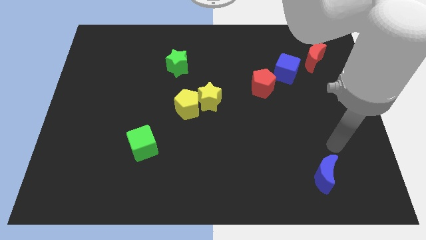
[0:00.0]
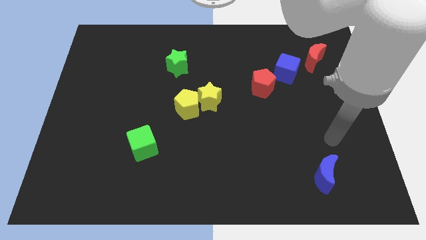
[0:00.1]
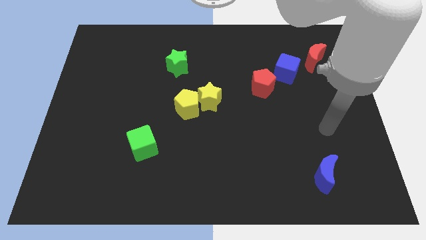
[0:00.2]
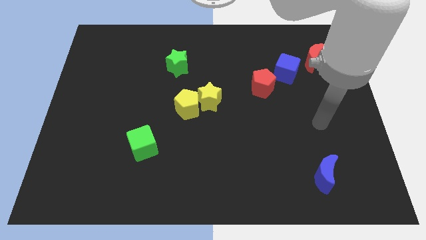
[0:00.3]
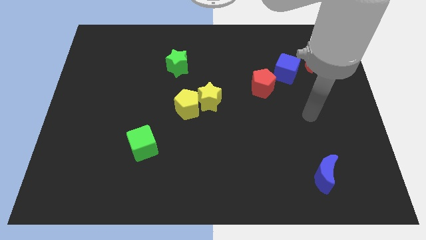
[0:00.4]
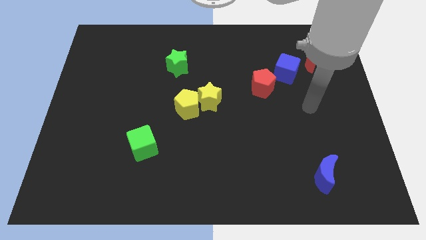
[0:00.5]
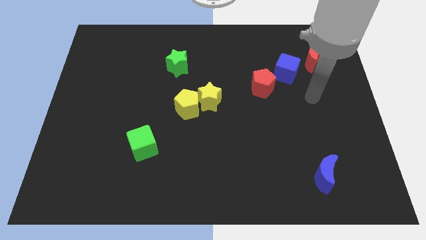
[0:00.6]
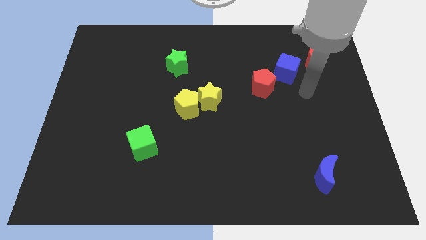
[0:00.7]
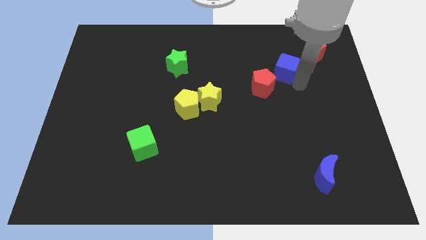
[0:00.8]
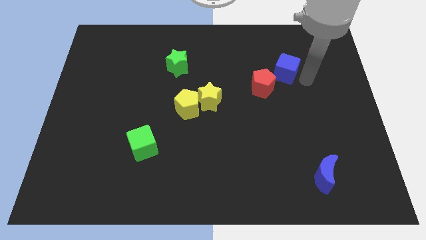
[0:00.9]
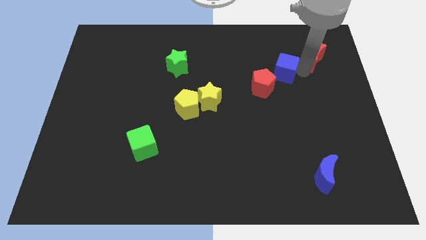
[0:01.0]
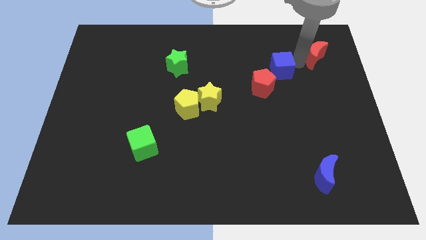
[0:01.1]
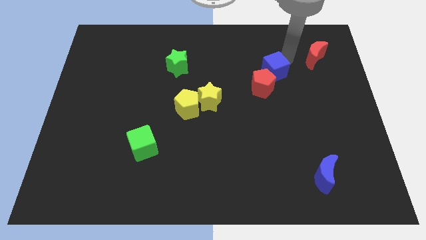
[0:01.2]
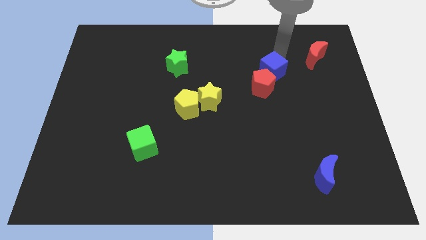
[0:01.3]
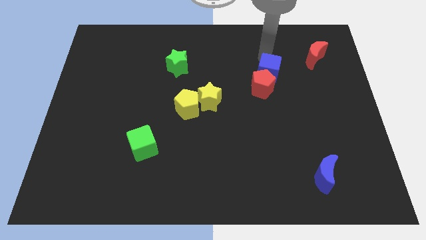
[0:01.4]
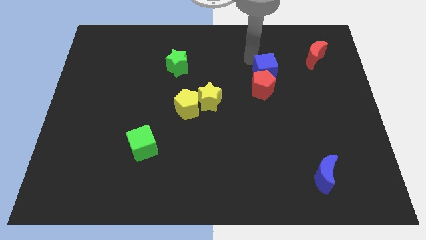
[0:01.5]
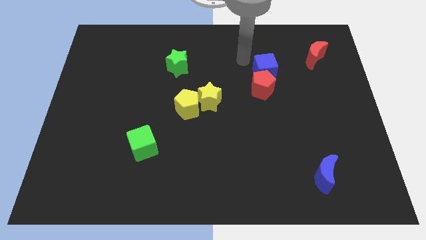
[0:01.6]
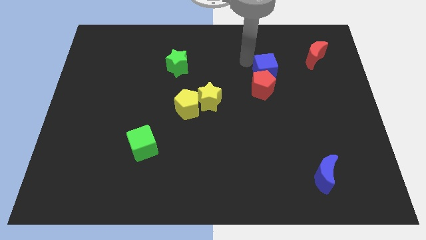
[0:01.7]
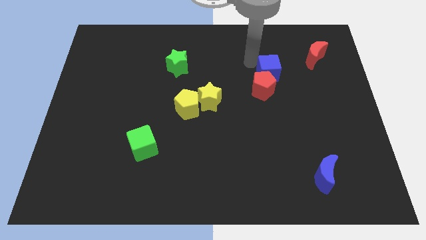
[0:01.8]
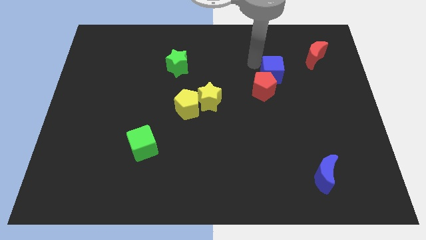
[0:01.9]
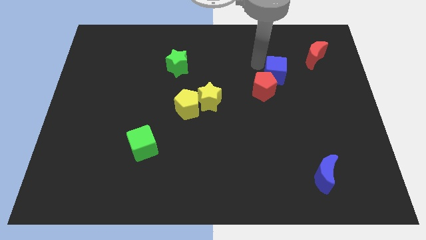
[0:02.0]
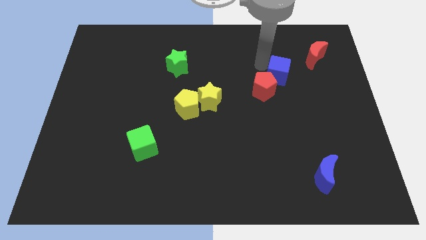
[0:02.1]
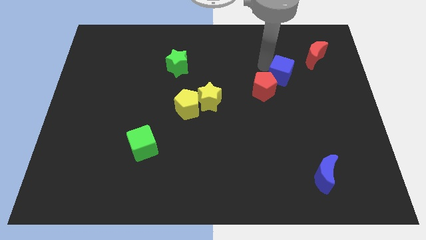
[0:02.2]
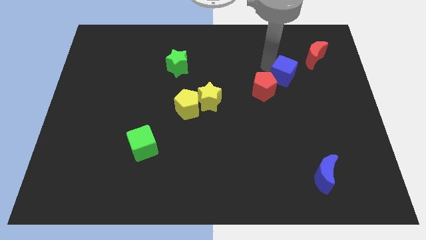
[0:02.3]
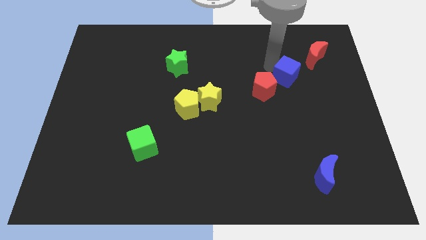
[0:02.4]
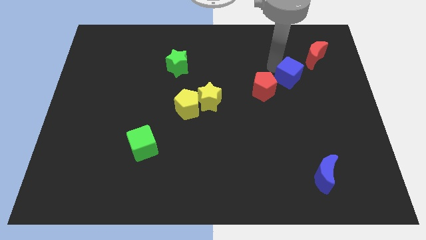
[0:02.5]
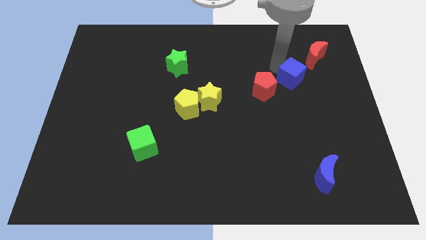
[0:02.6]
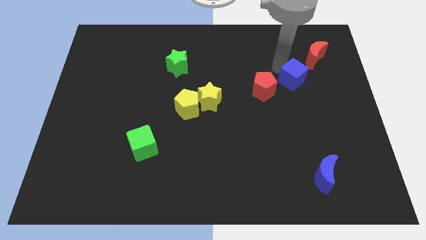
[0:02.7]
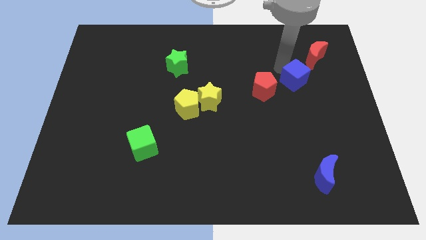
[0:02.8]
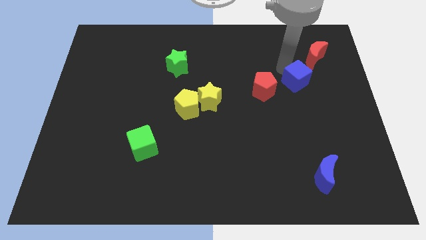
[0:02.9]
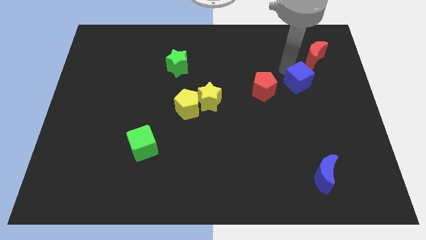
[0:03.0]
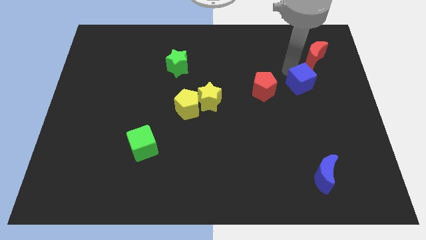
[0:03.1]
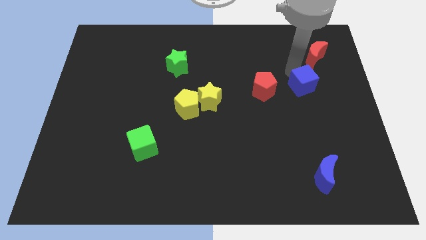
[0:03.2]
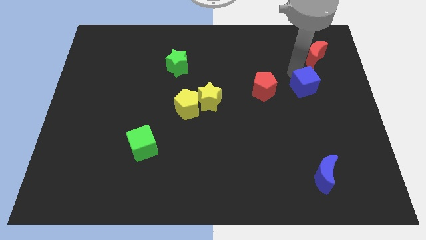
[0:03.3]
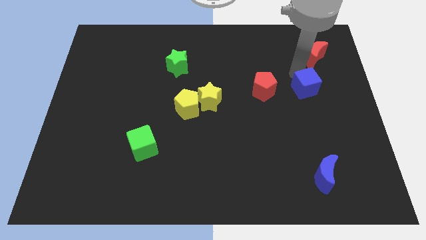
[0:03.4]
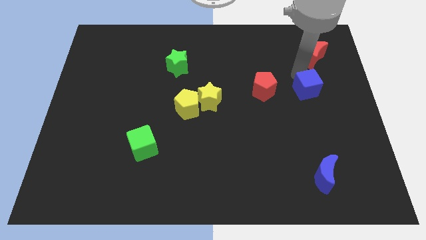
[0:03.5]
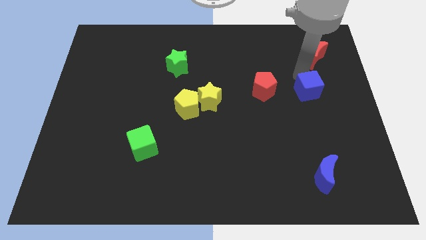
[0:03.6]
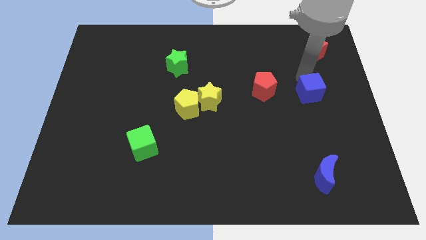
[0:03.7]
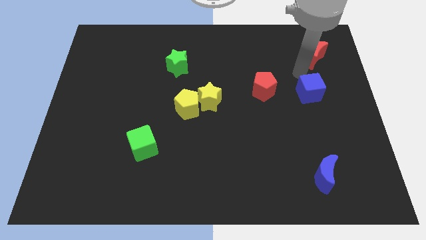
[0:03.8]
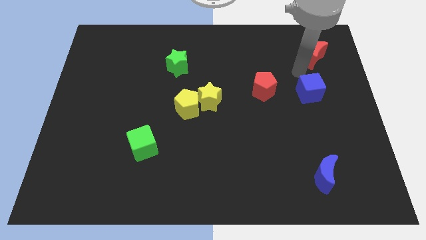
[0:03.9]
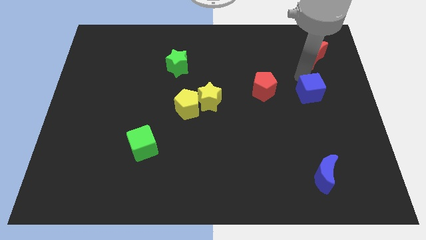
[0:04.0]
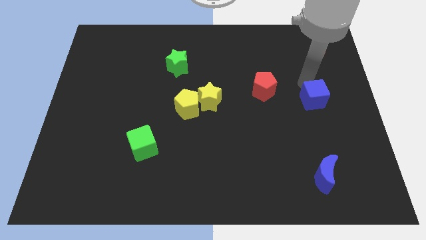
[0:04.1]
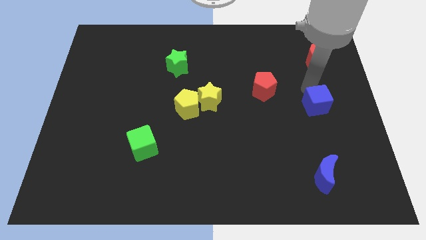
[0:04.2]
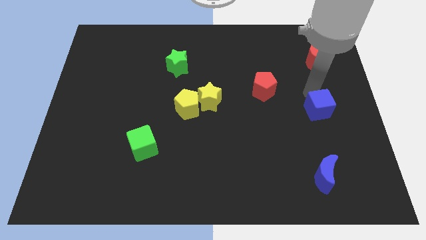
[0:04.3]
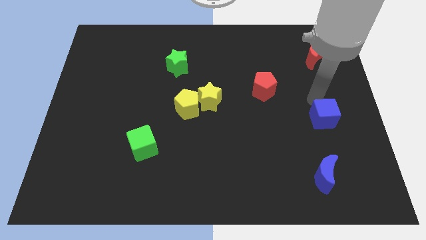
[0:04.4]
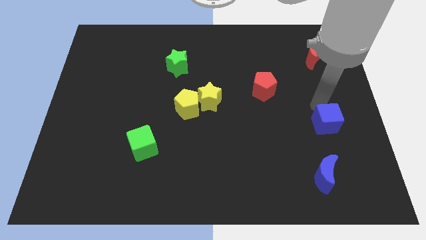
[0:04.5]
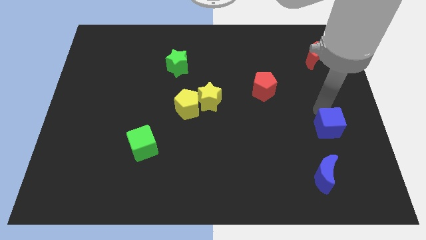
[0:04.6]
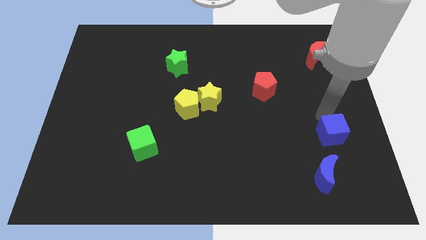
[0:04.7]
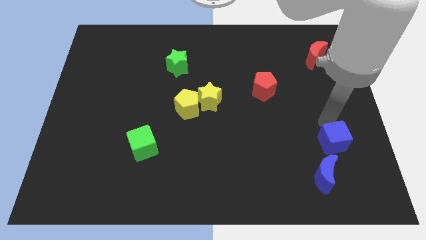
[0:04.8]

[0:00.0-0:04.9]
slide the blue cube diagonally up and to the right of the blue moon

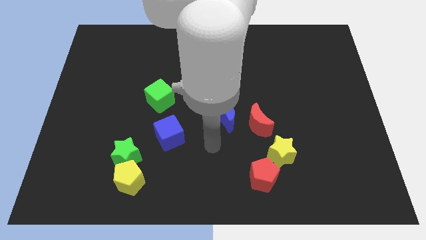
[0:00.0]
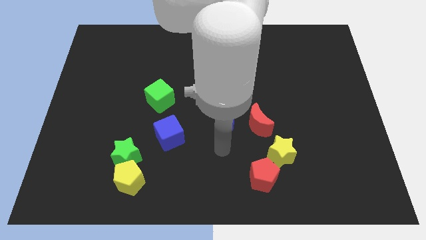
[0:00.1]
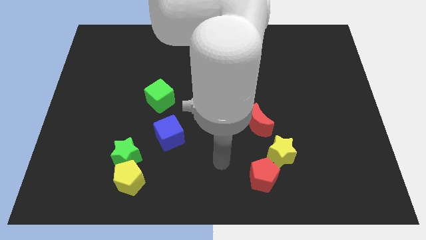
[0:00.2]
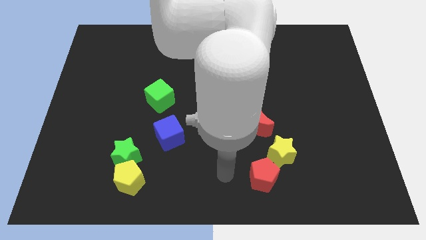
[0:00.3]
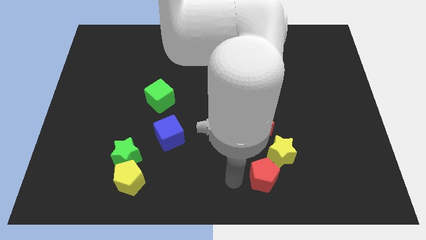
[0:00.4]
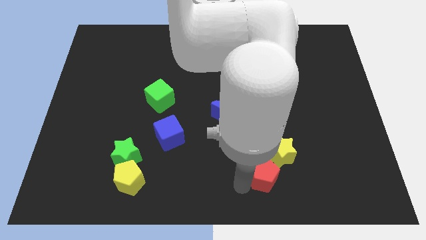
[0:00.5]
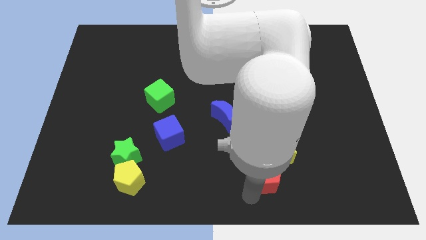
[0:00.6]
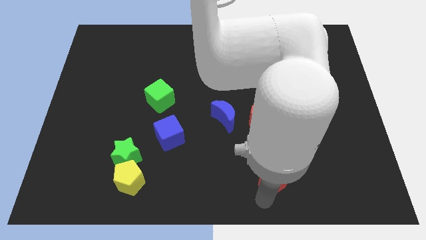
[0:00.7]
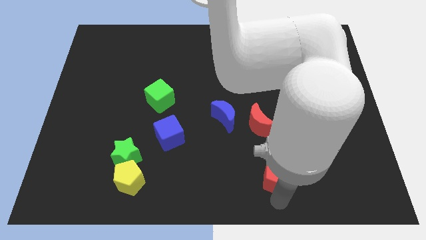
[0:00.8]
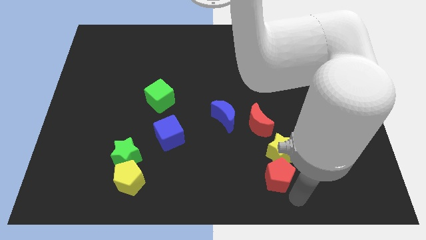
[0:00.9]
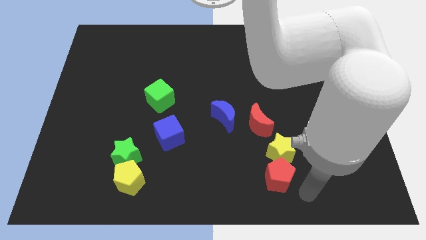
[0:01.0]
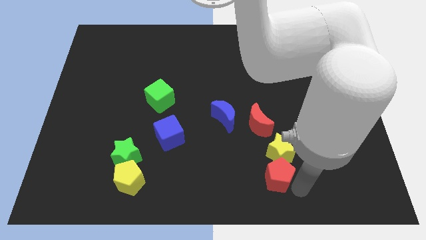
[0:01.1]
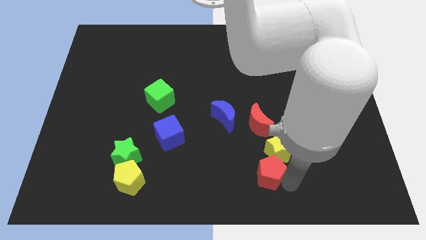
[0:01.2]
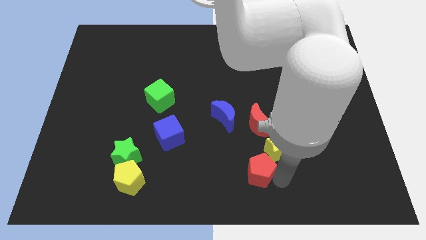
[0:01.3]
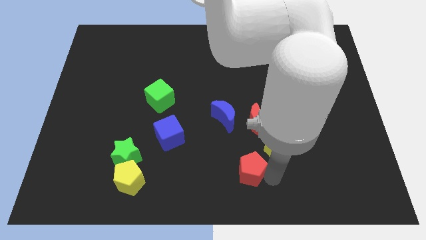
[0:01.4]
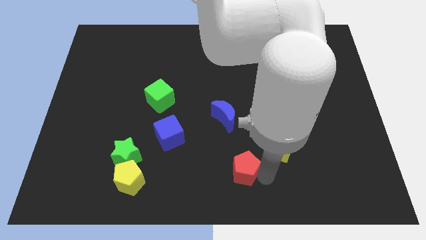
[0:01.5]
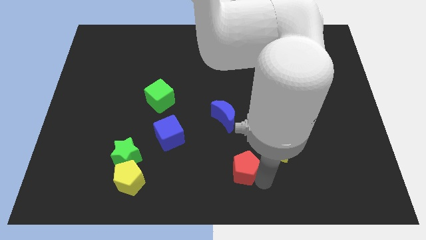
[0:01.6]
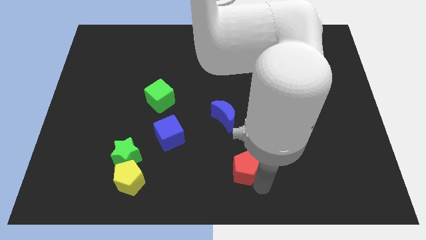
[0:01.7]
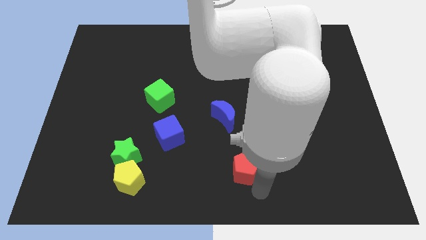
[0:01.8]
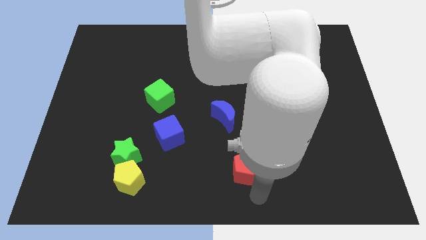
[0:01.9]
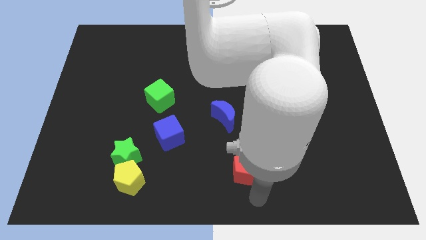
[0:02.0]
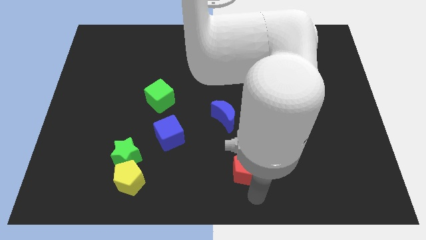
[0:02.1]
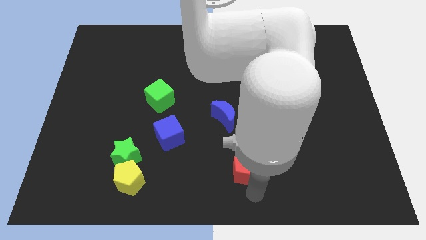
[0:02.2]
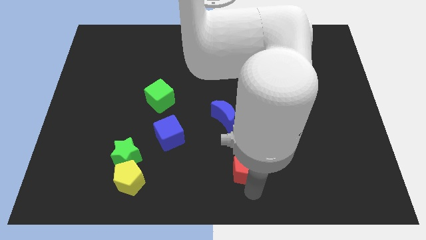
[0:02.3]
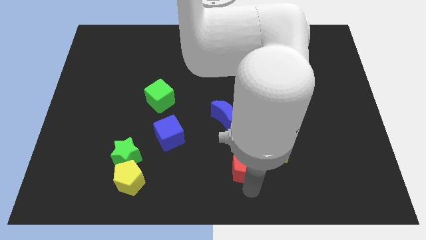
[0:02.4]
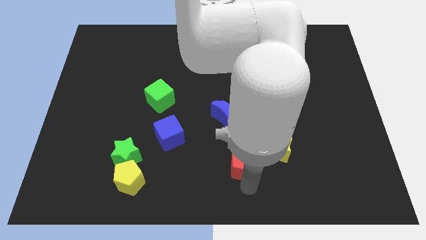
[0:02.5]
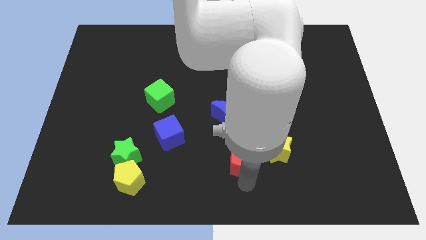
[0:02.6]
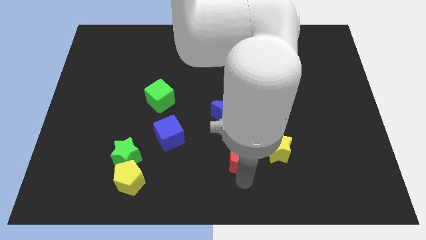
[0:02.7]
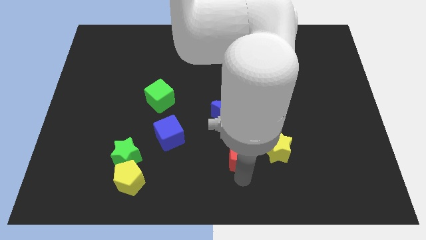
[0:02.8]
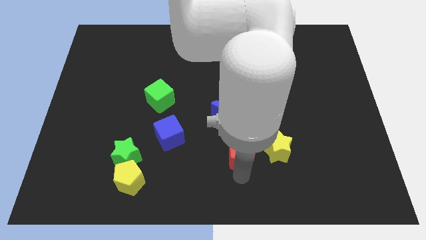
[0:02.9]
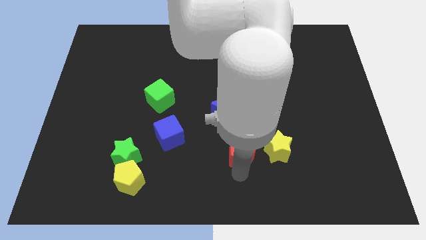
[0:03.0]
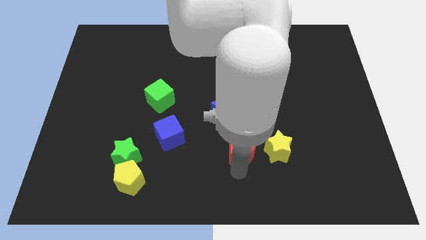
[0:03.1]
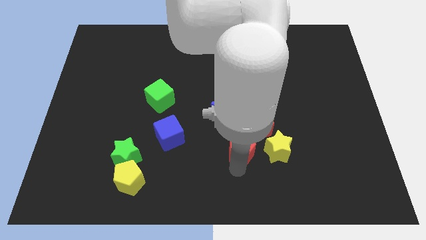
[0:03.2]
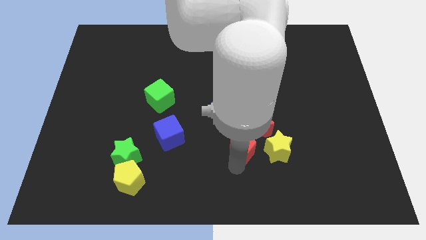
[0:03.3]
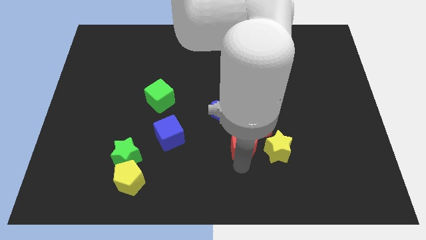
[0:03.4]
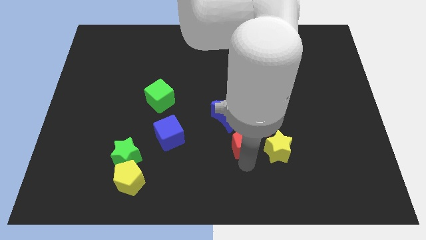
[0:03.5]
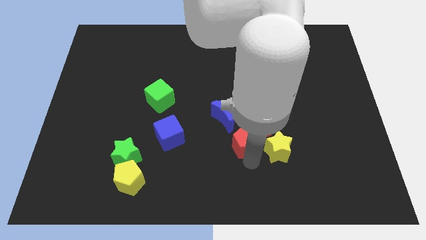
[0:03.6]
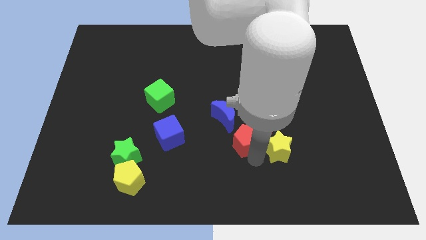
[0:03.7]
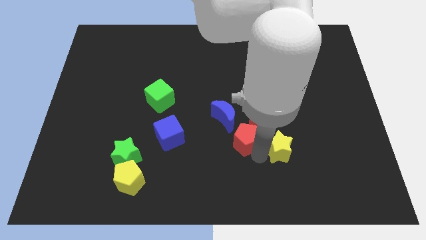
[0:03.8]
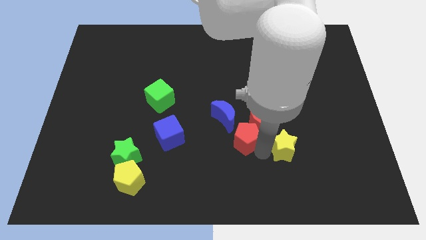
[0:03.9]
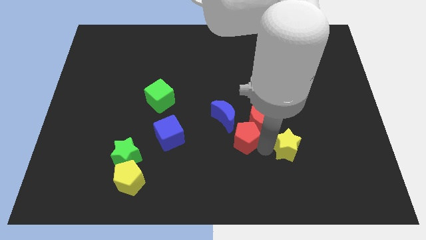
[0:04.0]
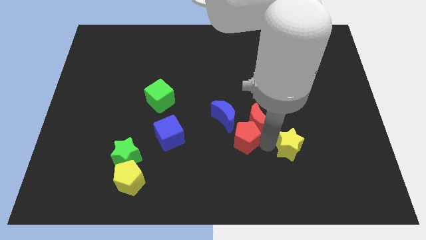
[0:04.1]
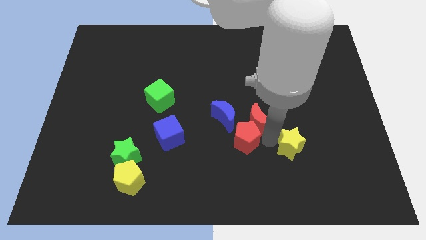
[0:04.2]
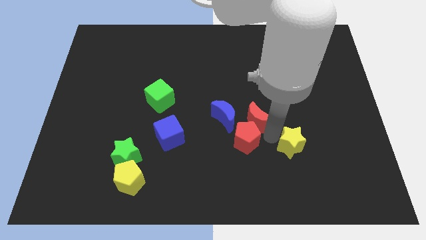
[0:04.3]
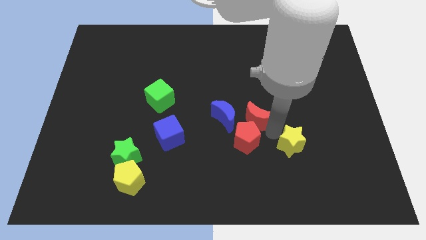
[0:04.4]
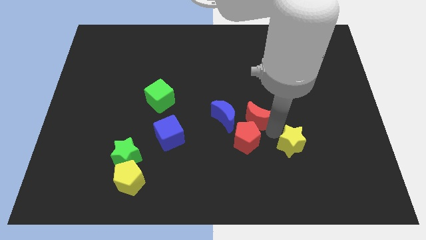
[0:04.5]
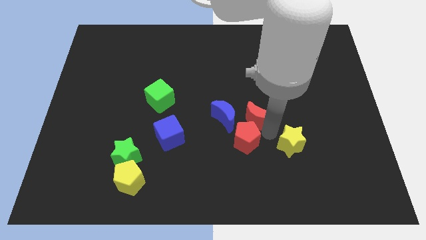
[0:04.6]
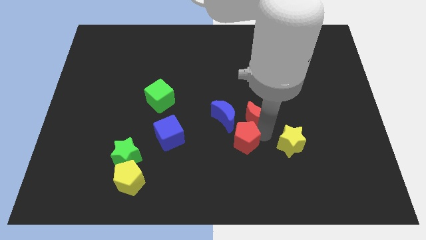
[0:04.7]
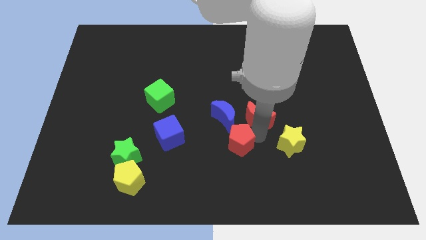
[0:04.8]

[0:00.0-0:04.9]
slide the red pentagon just right of the blue cube
